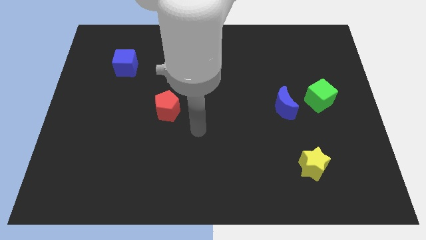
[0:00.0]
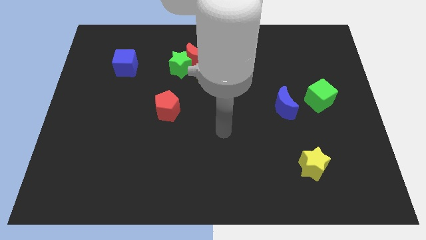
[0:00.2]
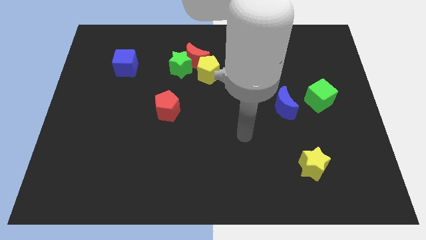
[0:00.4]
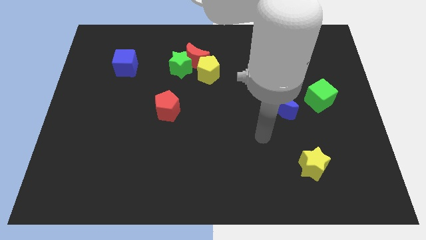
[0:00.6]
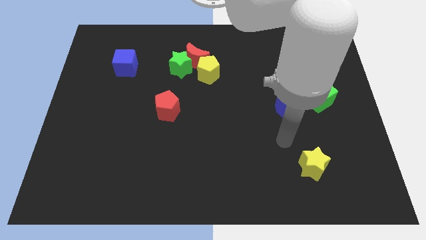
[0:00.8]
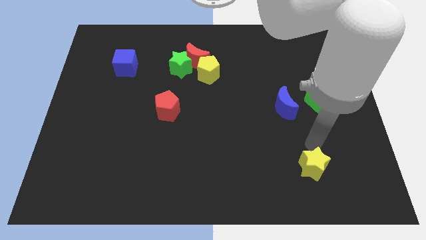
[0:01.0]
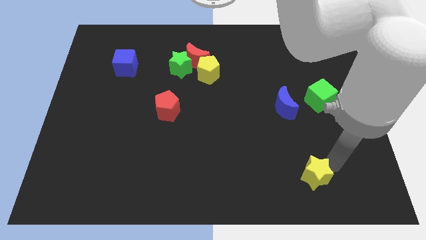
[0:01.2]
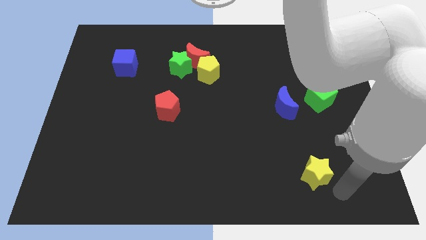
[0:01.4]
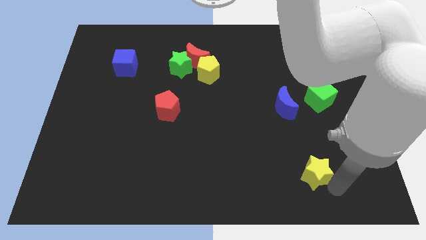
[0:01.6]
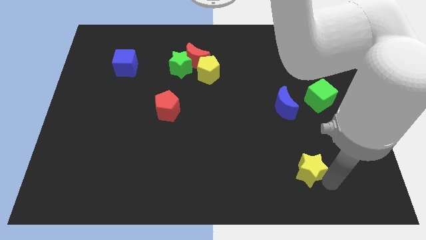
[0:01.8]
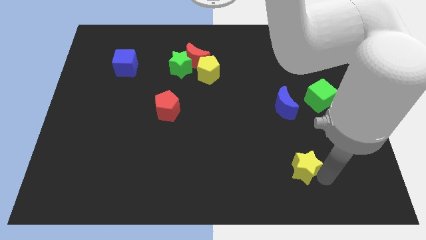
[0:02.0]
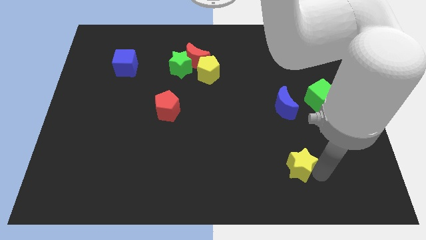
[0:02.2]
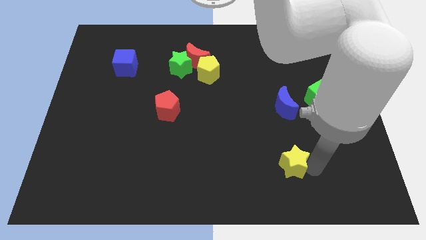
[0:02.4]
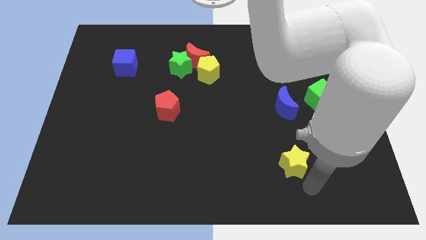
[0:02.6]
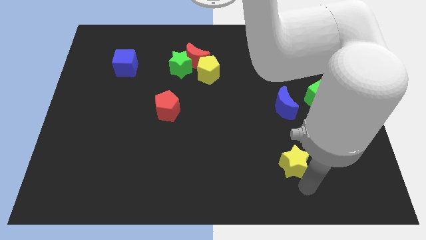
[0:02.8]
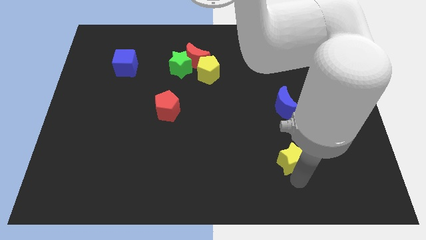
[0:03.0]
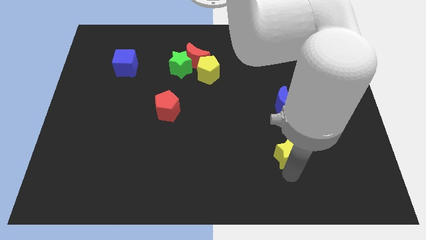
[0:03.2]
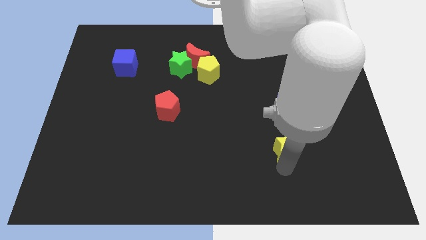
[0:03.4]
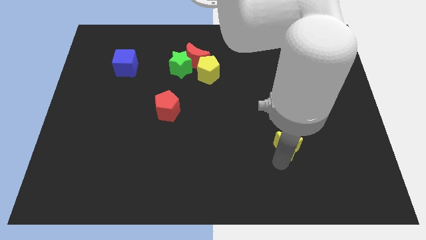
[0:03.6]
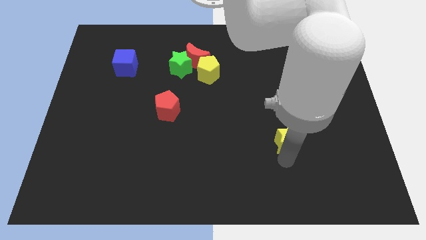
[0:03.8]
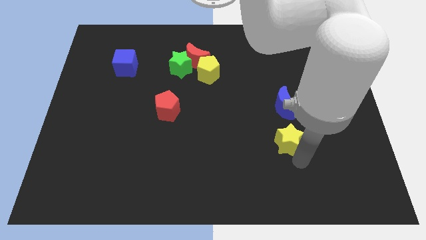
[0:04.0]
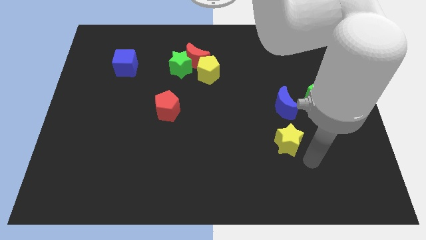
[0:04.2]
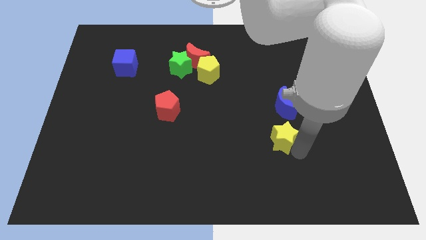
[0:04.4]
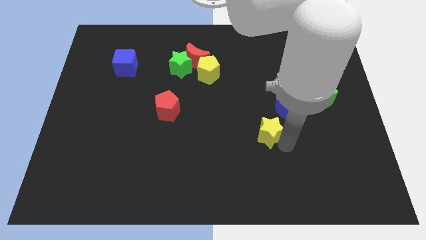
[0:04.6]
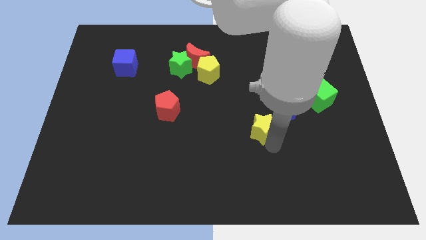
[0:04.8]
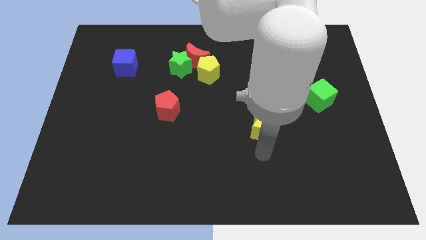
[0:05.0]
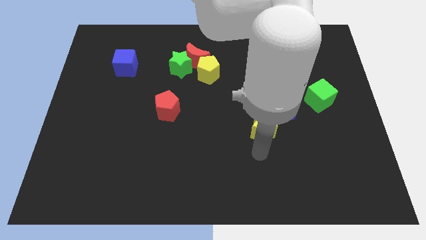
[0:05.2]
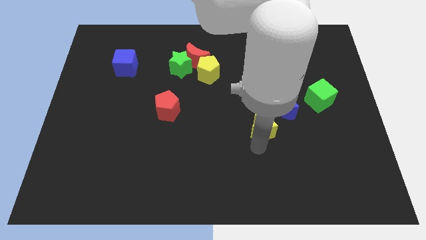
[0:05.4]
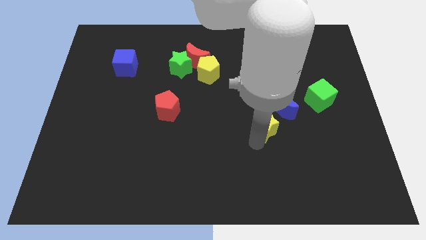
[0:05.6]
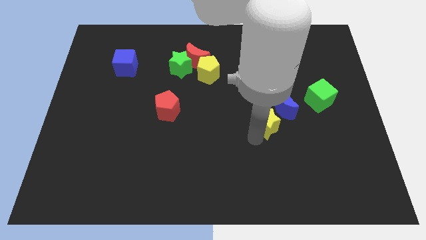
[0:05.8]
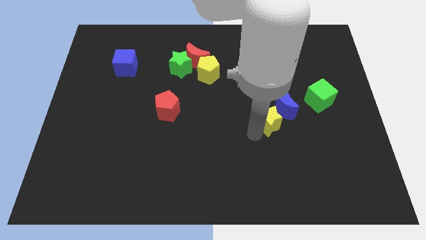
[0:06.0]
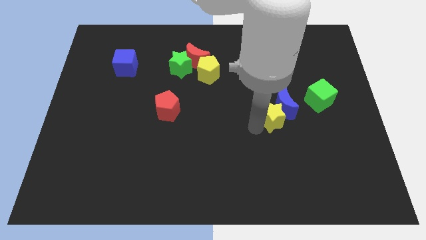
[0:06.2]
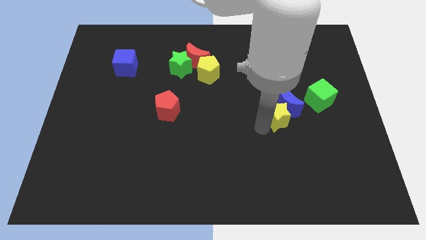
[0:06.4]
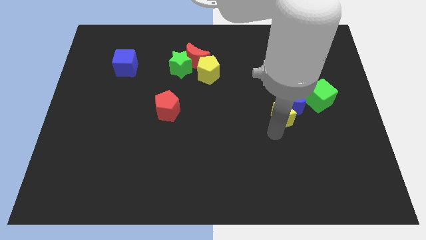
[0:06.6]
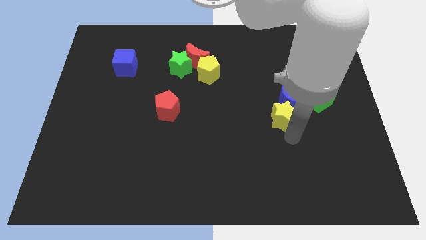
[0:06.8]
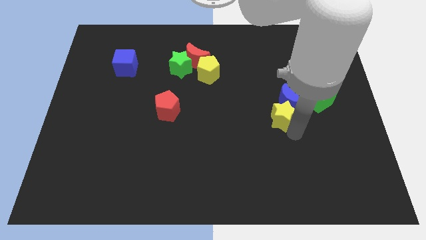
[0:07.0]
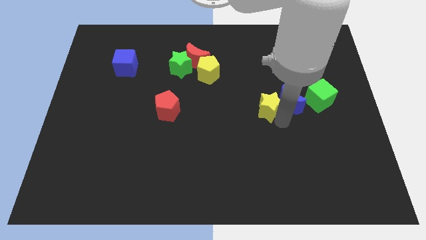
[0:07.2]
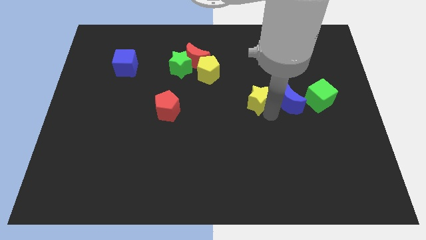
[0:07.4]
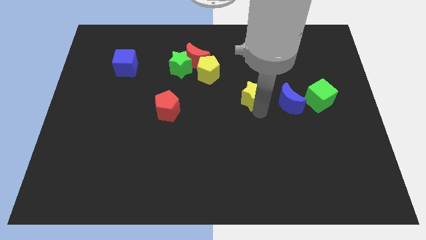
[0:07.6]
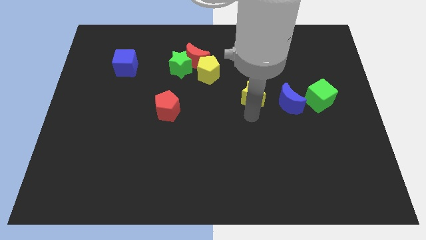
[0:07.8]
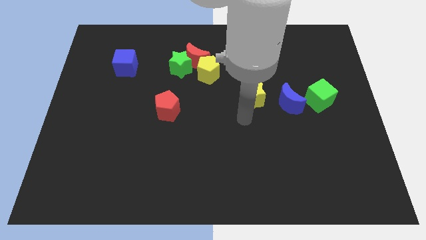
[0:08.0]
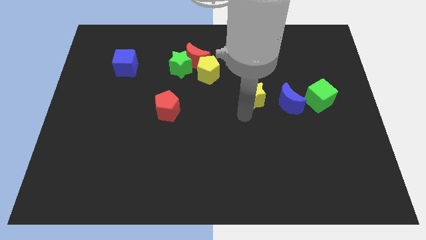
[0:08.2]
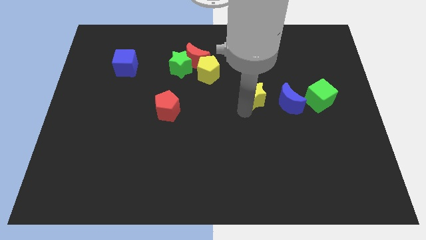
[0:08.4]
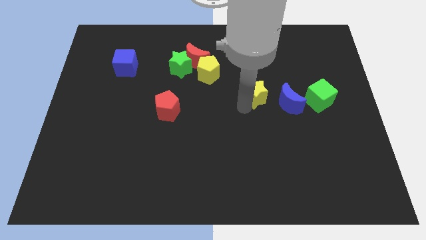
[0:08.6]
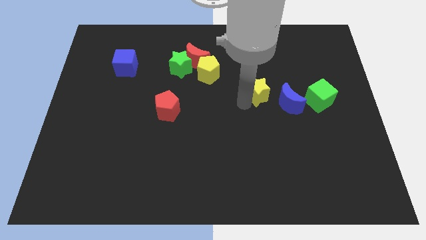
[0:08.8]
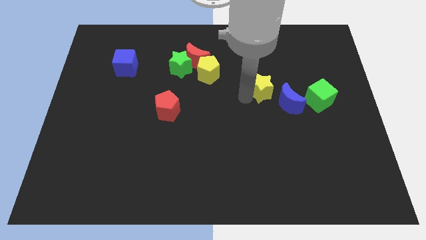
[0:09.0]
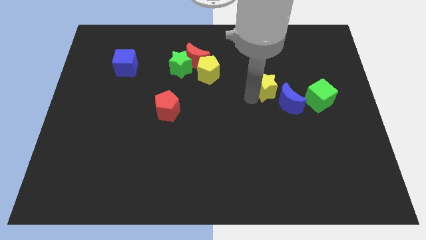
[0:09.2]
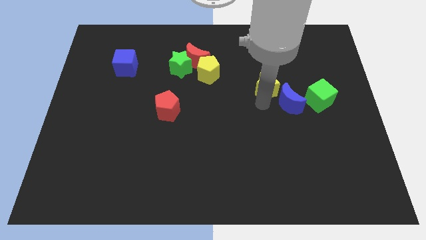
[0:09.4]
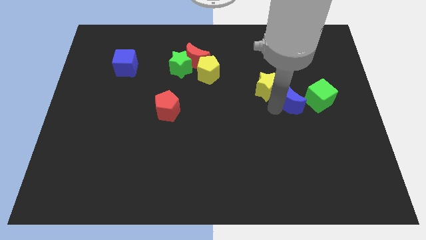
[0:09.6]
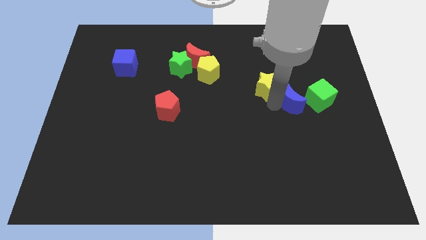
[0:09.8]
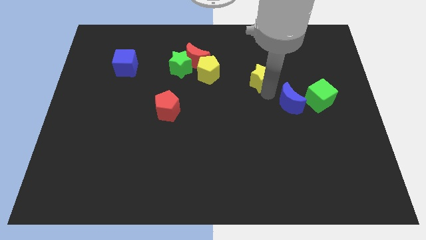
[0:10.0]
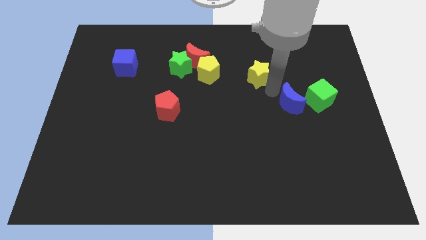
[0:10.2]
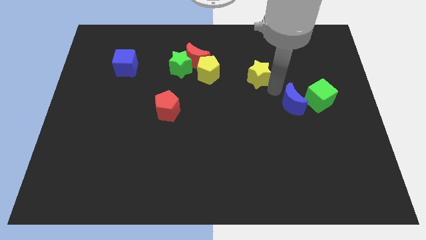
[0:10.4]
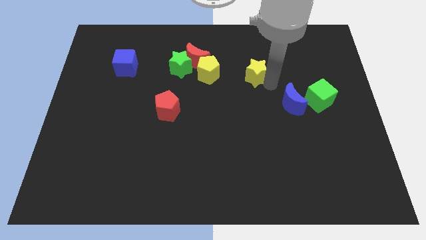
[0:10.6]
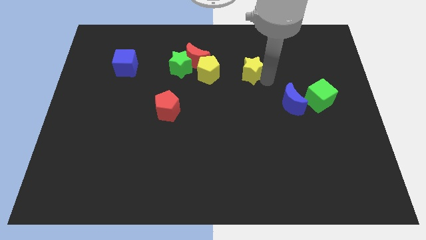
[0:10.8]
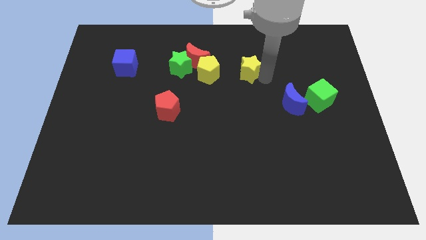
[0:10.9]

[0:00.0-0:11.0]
put the yellow star to the right side of the red moon

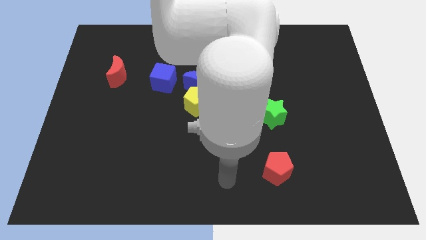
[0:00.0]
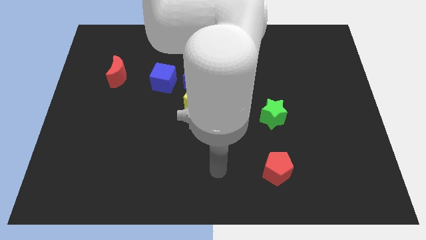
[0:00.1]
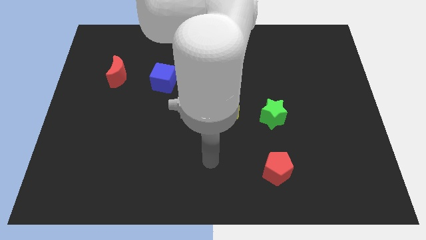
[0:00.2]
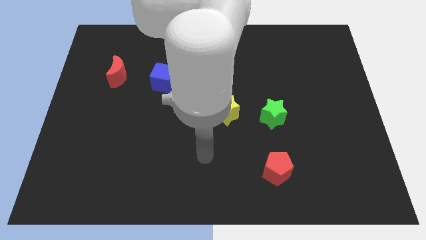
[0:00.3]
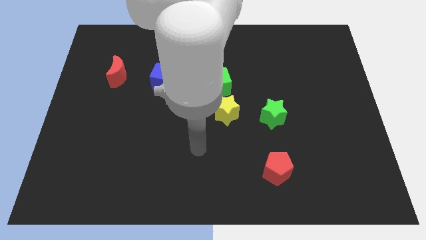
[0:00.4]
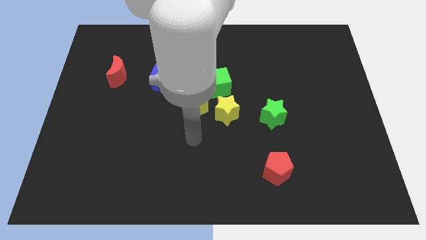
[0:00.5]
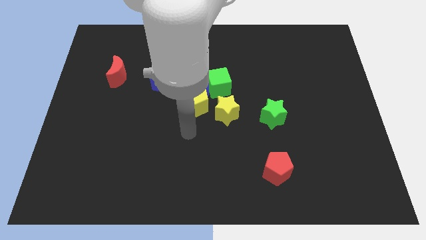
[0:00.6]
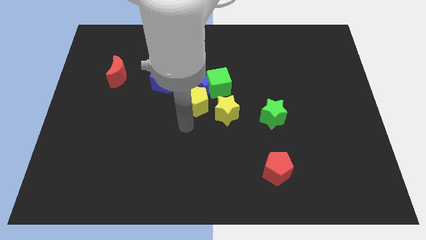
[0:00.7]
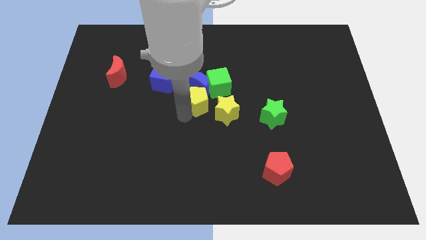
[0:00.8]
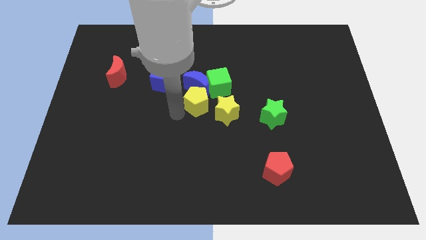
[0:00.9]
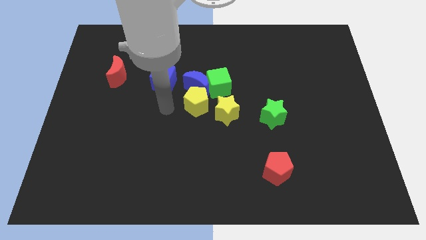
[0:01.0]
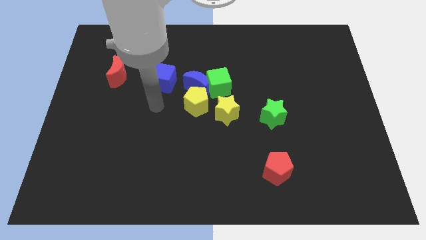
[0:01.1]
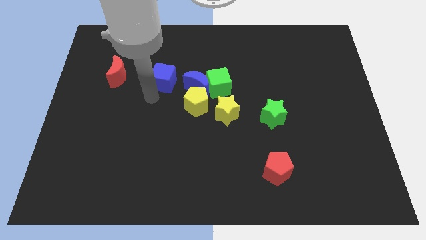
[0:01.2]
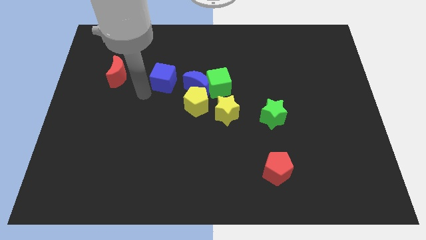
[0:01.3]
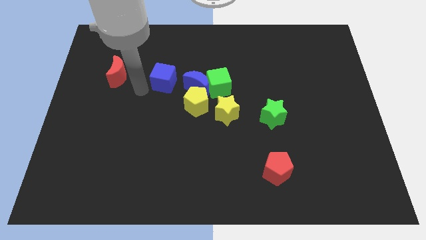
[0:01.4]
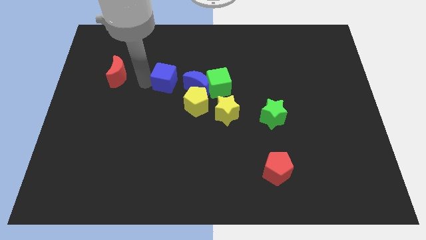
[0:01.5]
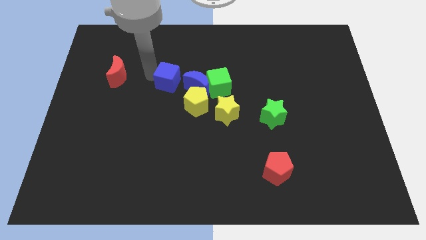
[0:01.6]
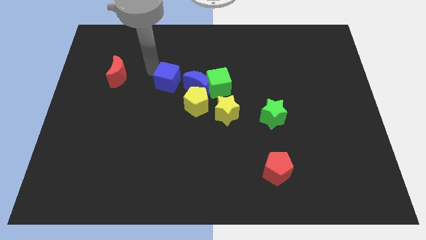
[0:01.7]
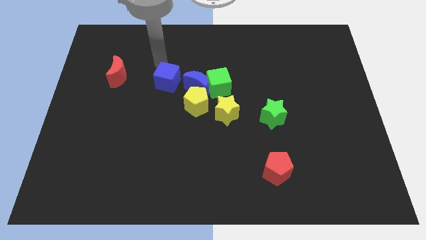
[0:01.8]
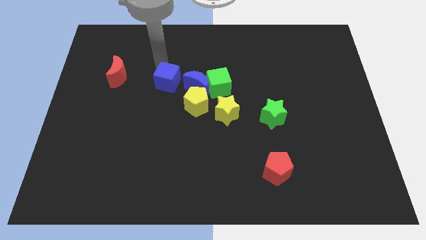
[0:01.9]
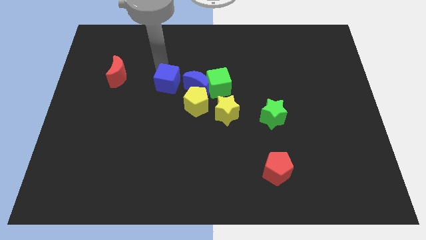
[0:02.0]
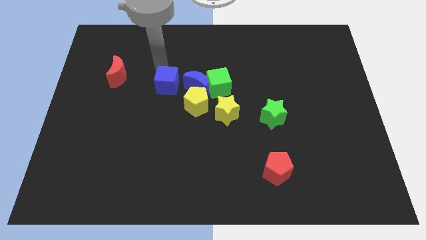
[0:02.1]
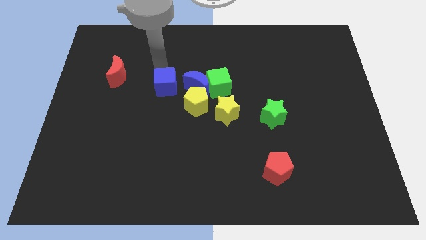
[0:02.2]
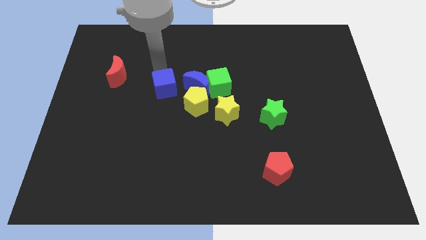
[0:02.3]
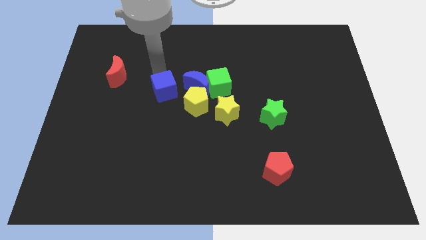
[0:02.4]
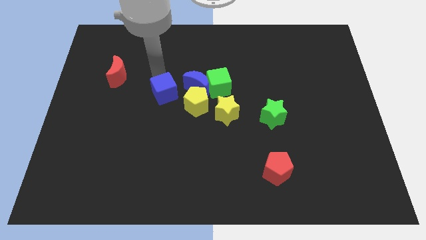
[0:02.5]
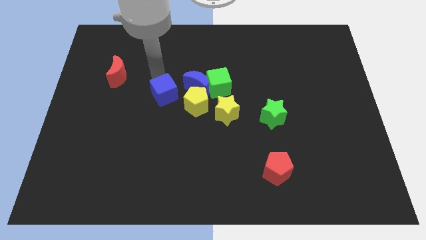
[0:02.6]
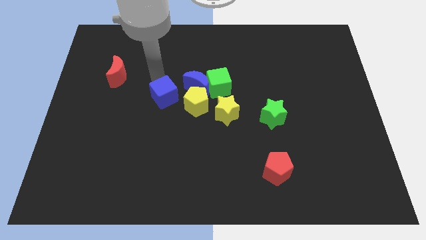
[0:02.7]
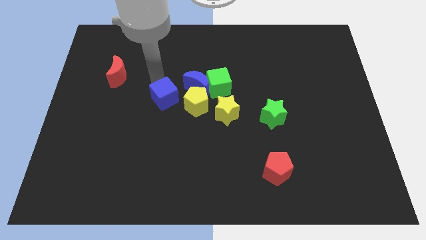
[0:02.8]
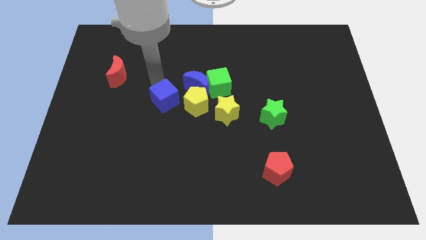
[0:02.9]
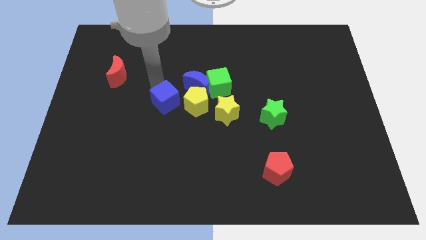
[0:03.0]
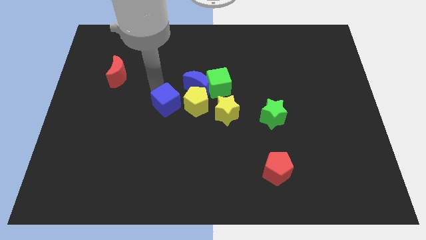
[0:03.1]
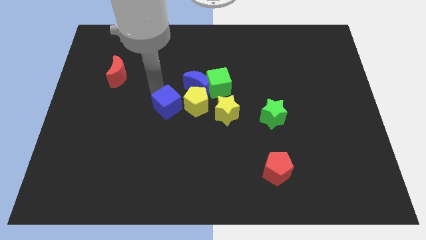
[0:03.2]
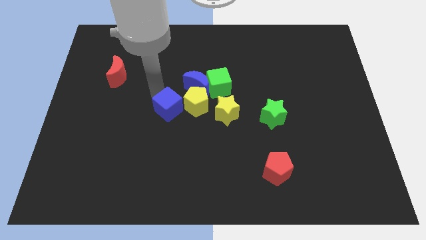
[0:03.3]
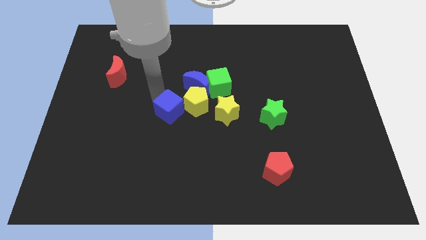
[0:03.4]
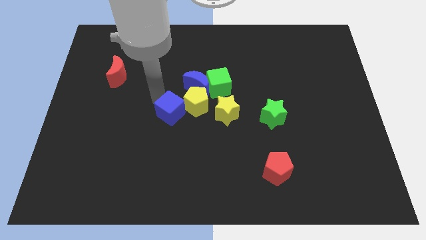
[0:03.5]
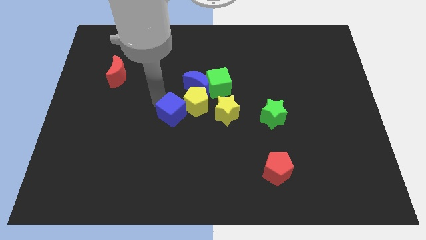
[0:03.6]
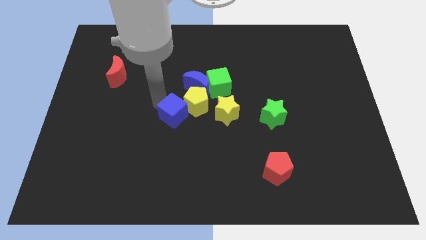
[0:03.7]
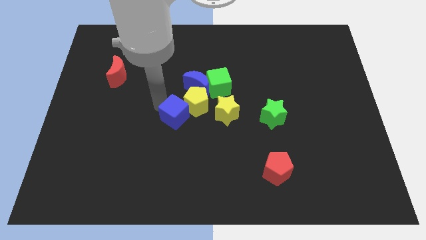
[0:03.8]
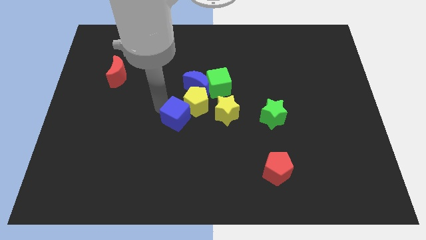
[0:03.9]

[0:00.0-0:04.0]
slide the blue cube below the yellow pentagon
